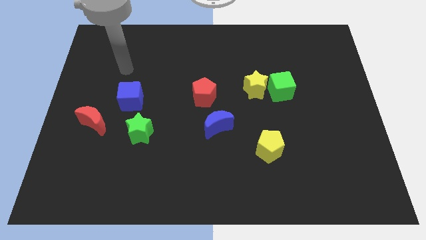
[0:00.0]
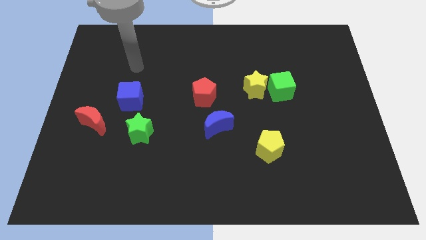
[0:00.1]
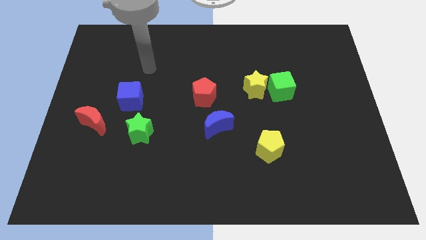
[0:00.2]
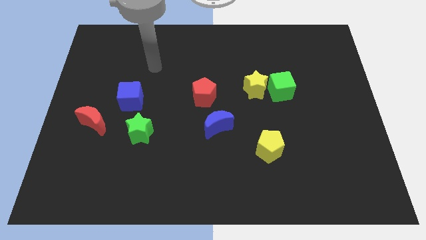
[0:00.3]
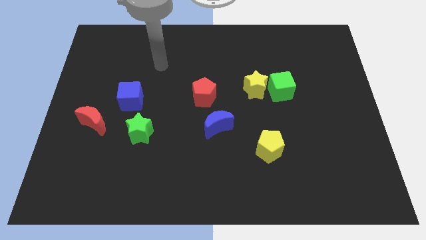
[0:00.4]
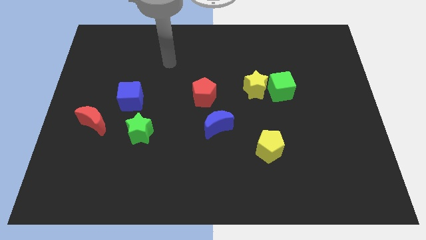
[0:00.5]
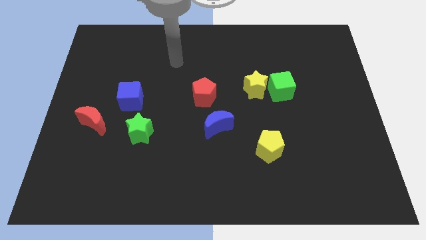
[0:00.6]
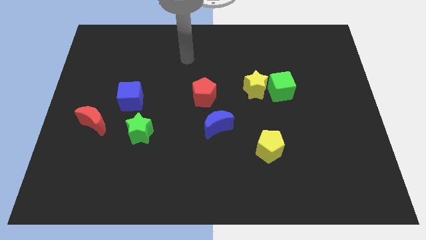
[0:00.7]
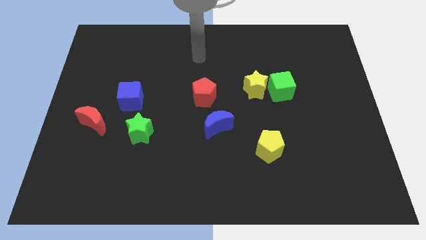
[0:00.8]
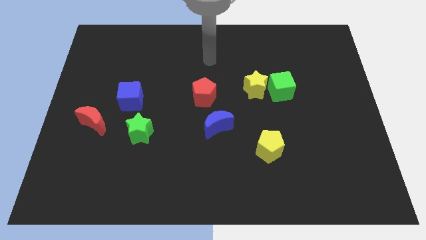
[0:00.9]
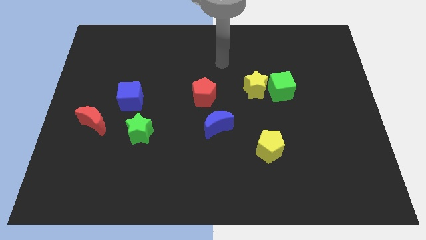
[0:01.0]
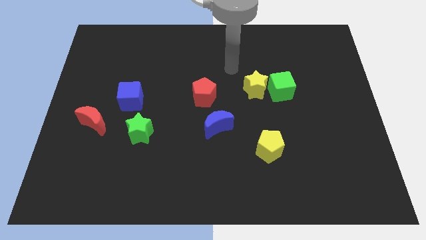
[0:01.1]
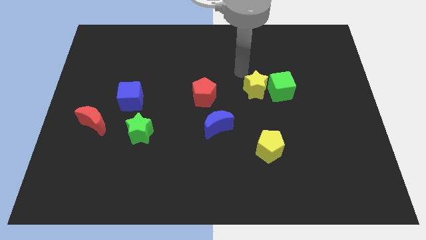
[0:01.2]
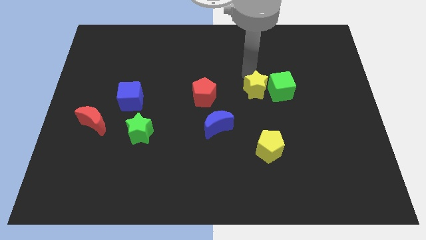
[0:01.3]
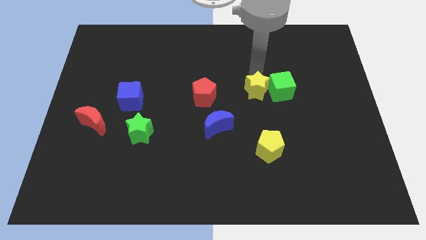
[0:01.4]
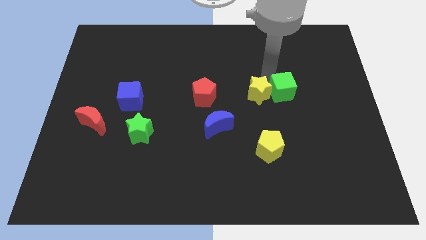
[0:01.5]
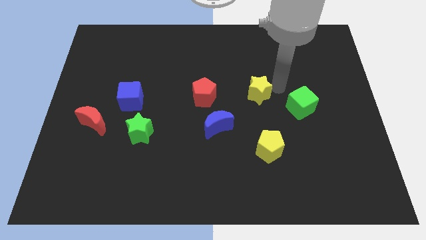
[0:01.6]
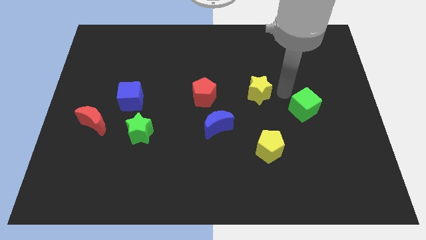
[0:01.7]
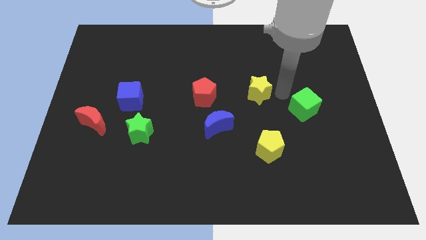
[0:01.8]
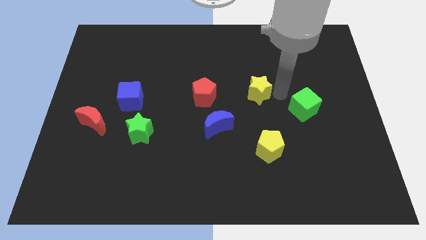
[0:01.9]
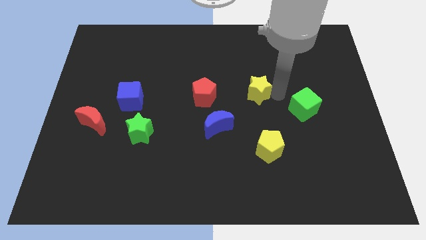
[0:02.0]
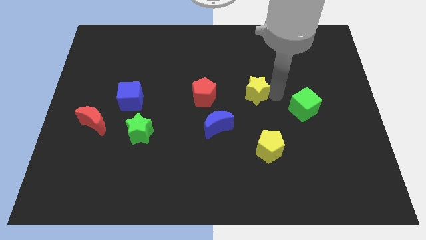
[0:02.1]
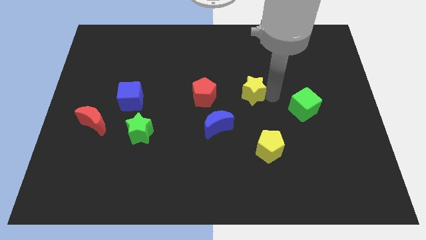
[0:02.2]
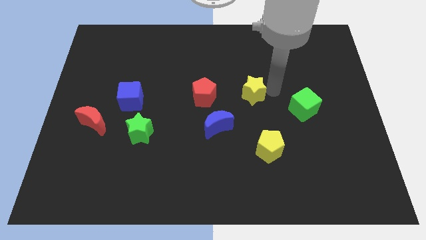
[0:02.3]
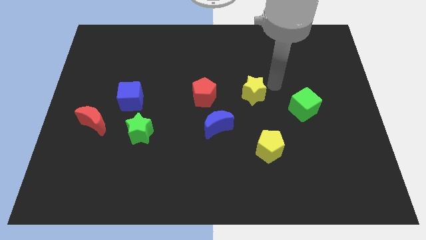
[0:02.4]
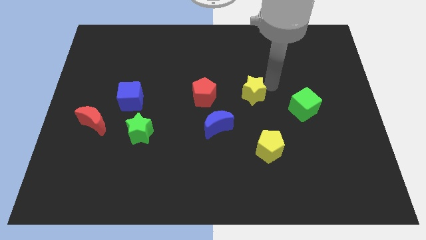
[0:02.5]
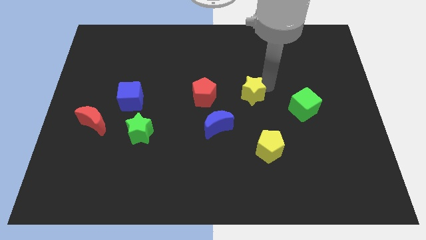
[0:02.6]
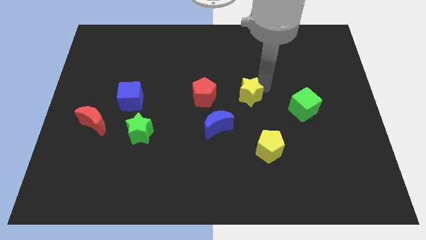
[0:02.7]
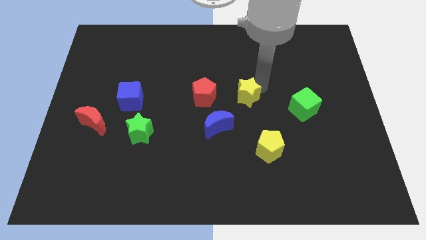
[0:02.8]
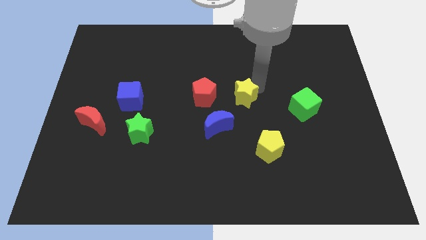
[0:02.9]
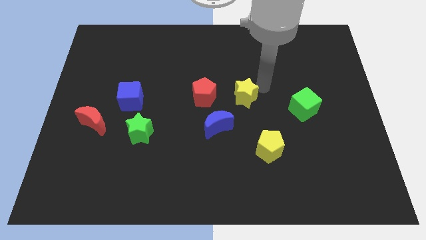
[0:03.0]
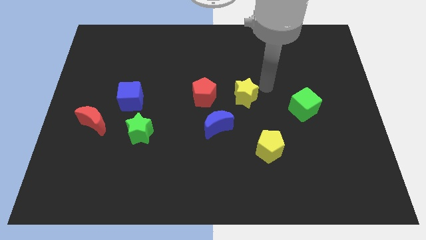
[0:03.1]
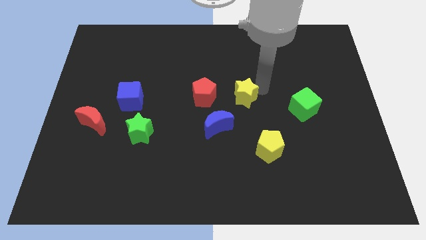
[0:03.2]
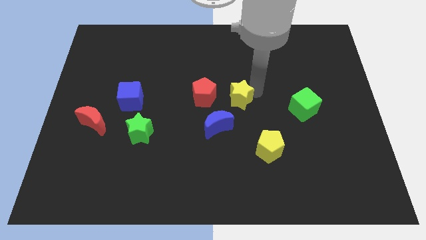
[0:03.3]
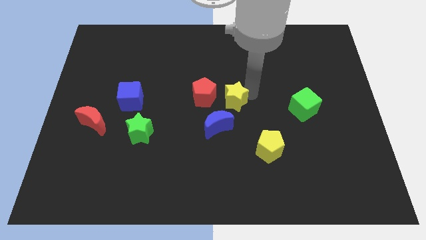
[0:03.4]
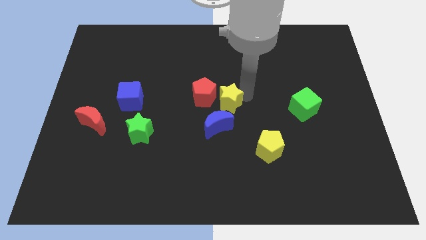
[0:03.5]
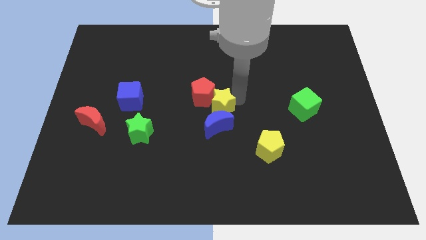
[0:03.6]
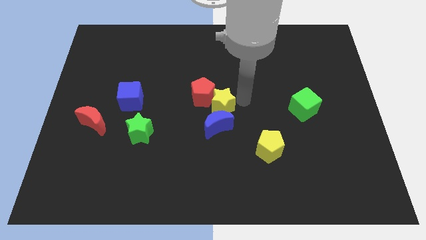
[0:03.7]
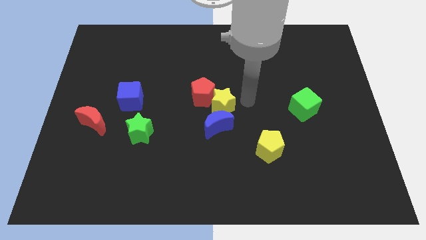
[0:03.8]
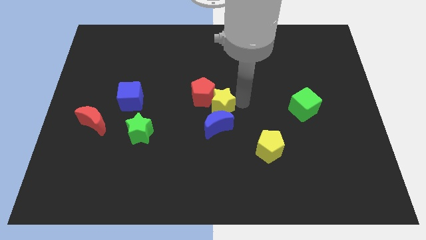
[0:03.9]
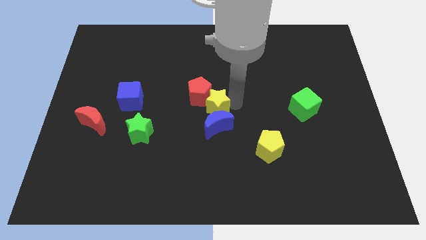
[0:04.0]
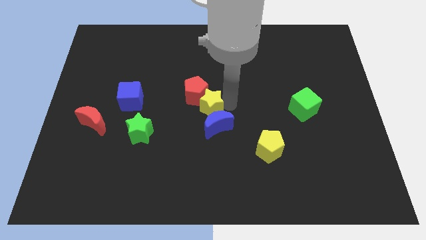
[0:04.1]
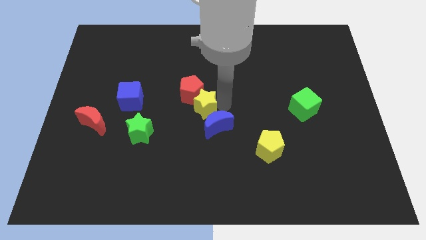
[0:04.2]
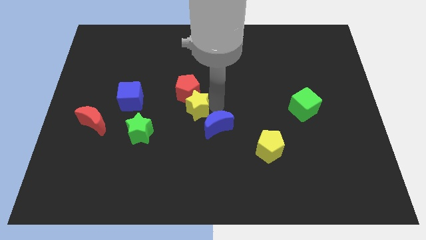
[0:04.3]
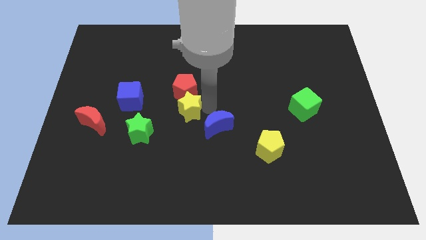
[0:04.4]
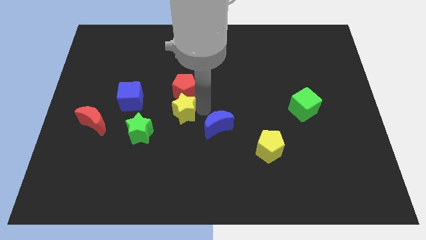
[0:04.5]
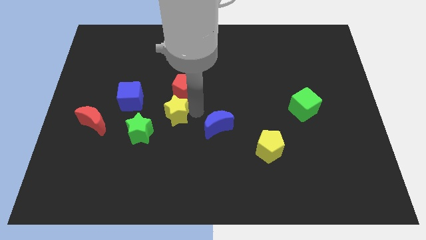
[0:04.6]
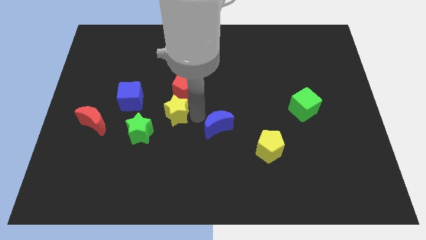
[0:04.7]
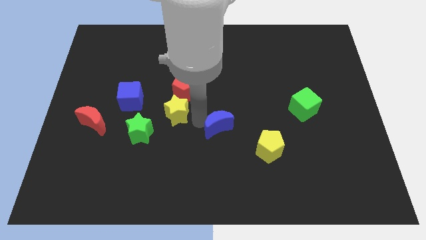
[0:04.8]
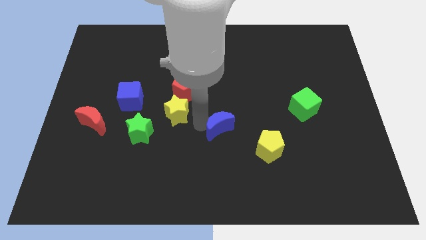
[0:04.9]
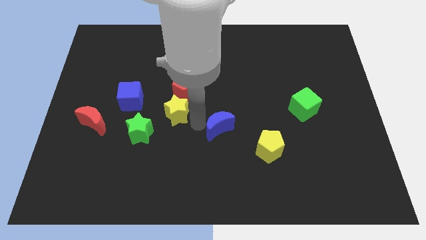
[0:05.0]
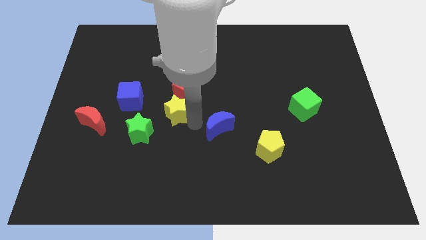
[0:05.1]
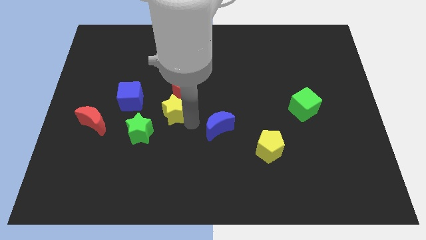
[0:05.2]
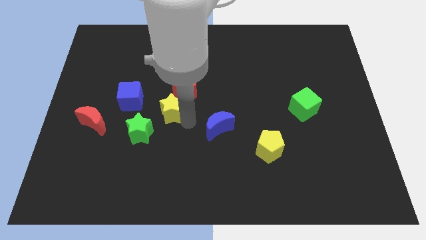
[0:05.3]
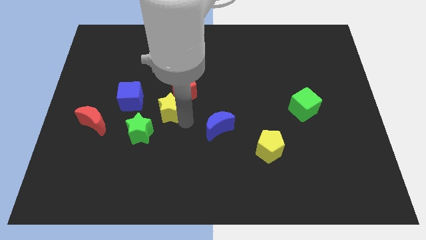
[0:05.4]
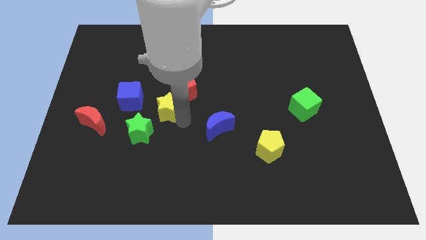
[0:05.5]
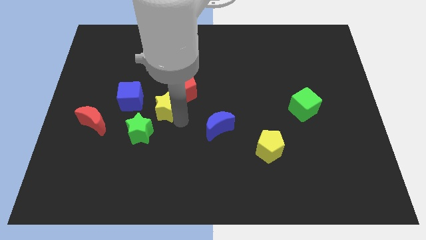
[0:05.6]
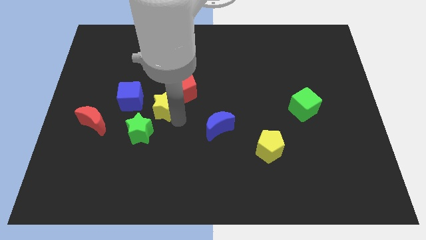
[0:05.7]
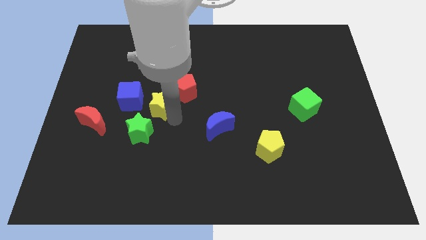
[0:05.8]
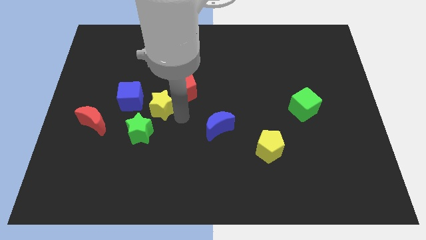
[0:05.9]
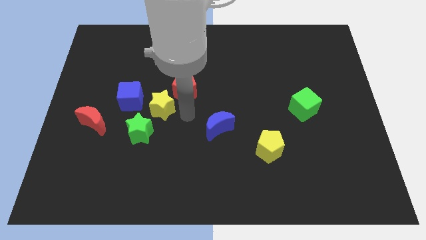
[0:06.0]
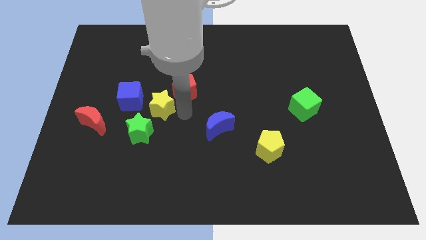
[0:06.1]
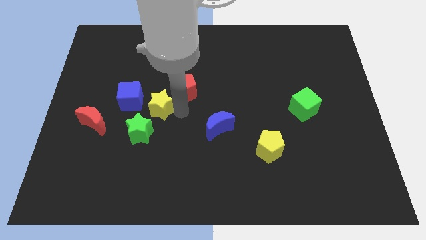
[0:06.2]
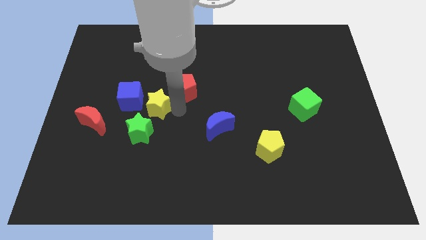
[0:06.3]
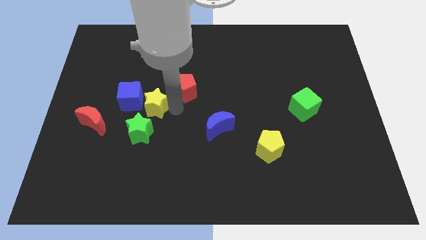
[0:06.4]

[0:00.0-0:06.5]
put the yellow star next to the blue cube

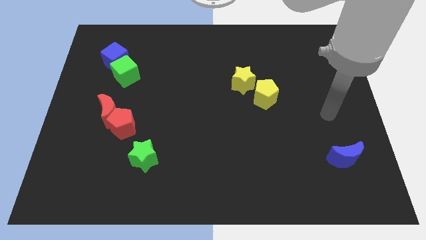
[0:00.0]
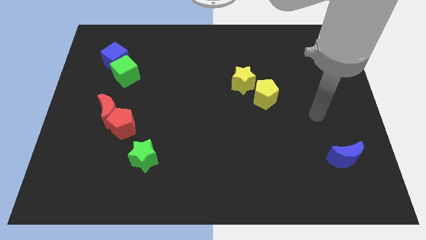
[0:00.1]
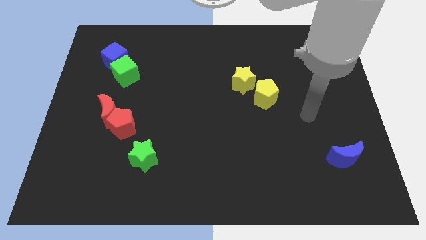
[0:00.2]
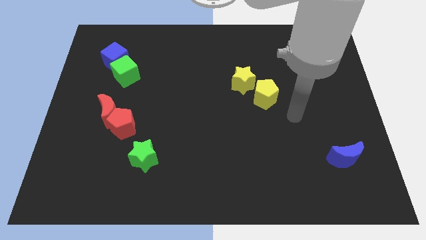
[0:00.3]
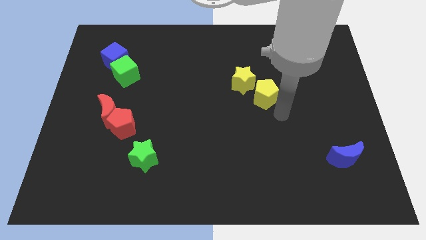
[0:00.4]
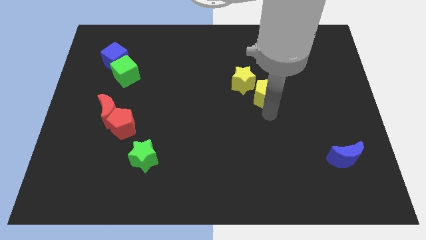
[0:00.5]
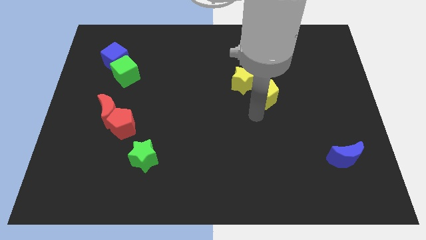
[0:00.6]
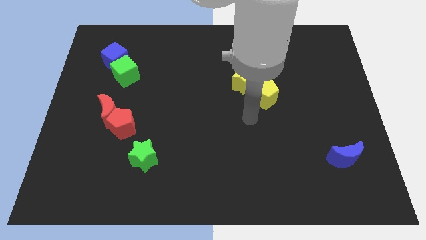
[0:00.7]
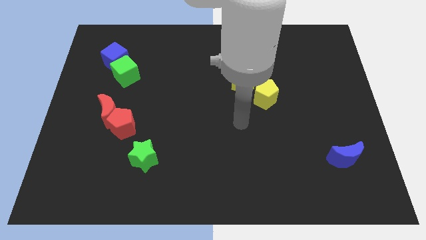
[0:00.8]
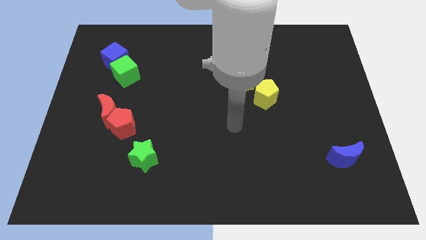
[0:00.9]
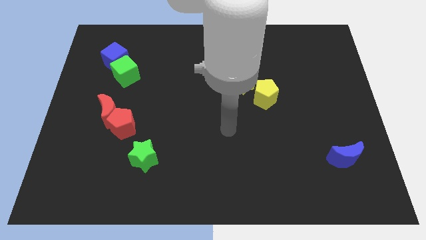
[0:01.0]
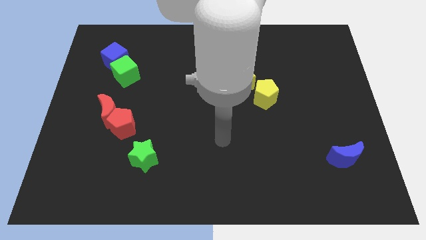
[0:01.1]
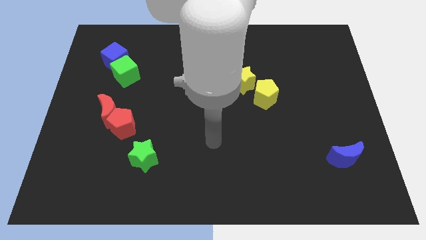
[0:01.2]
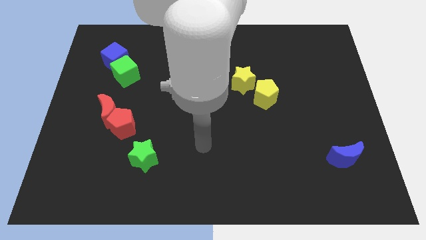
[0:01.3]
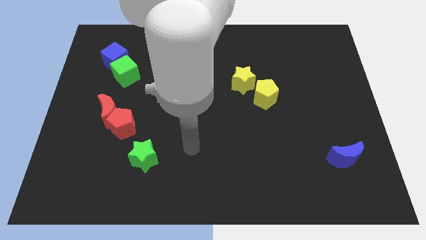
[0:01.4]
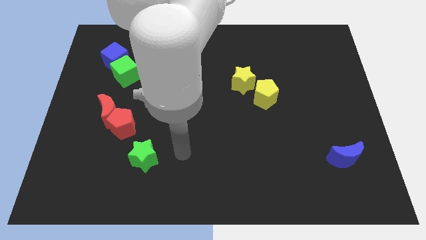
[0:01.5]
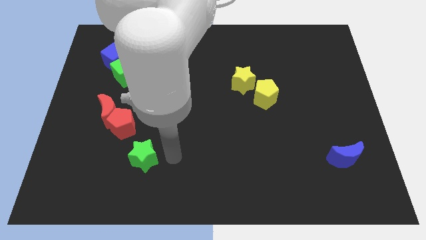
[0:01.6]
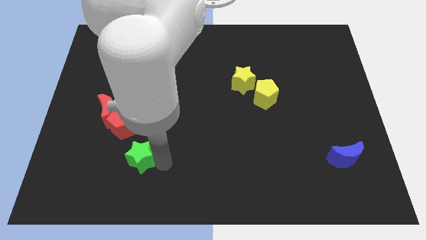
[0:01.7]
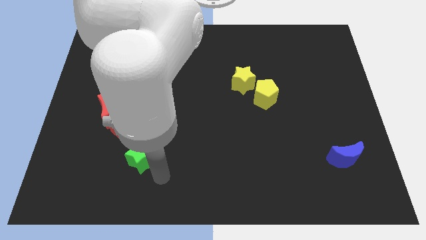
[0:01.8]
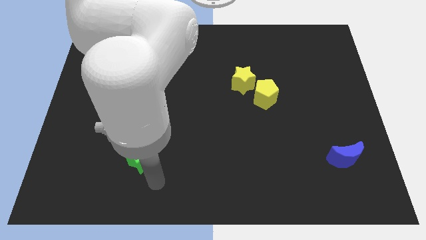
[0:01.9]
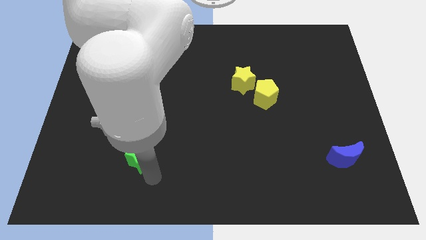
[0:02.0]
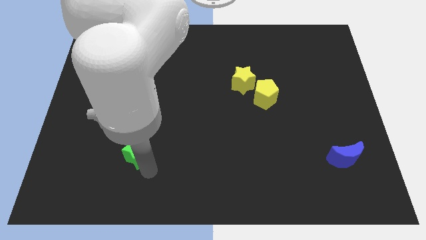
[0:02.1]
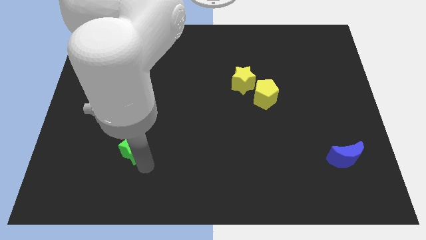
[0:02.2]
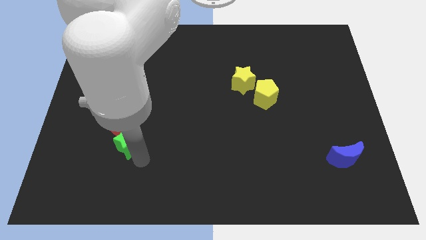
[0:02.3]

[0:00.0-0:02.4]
push the green star to the red pentagon
